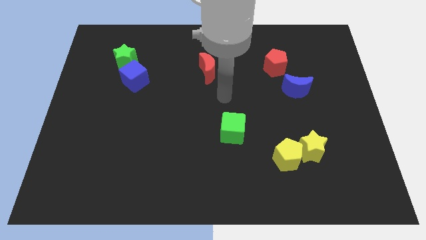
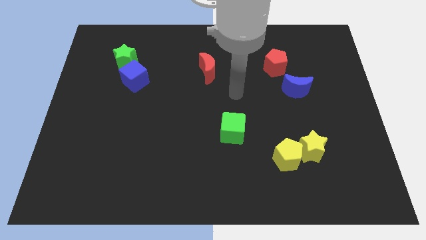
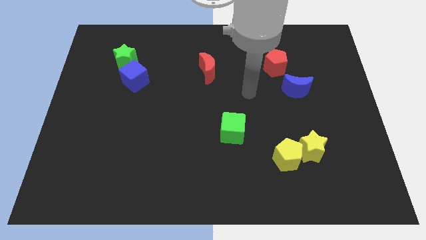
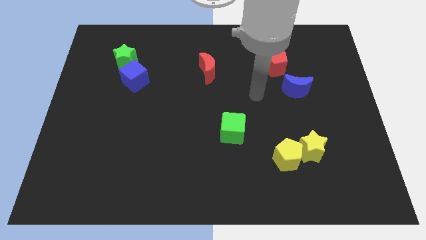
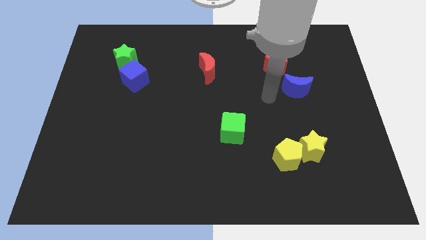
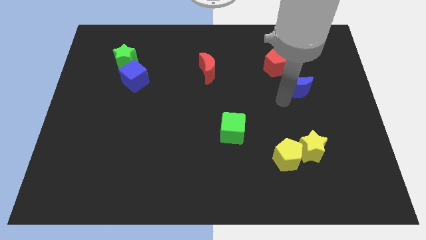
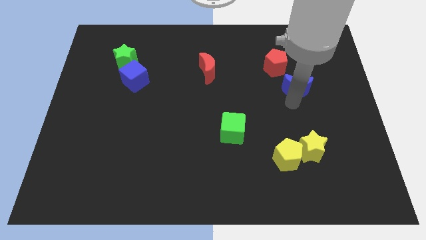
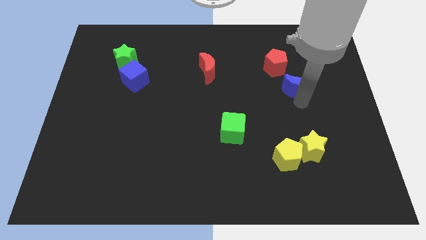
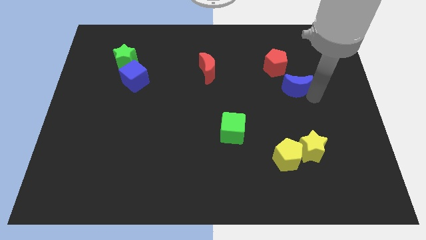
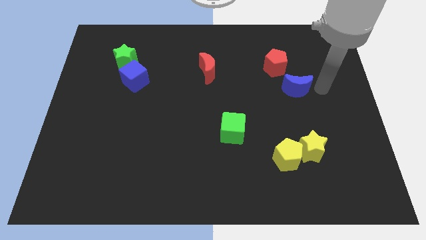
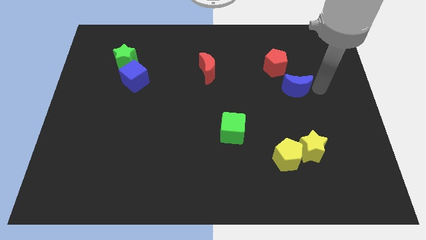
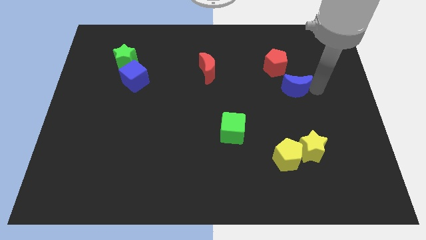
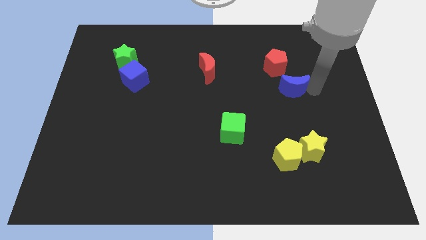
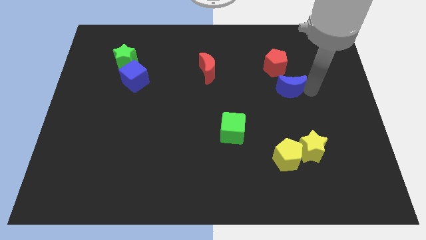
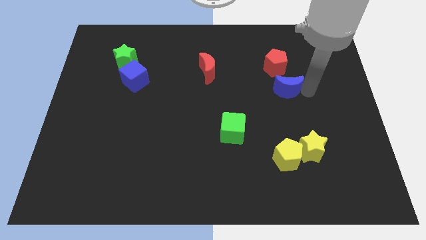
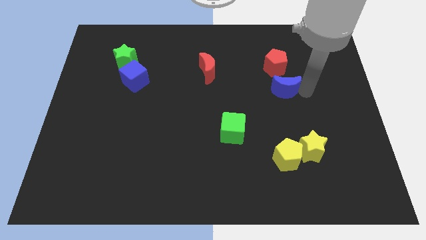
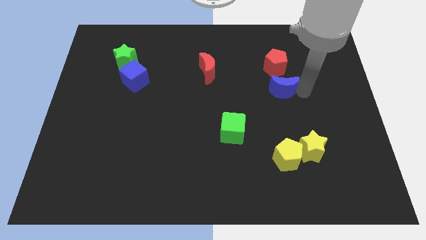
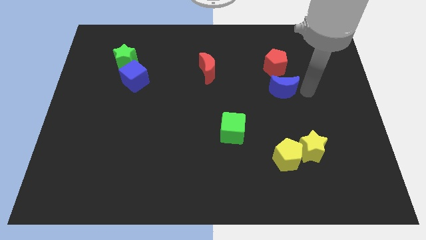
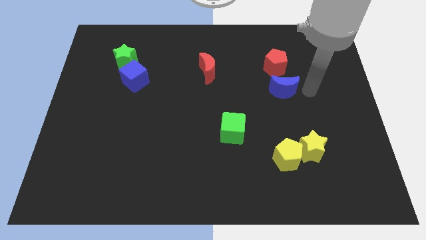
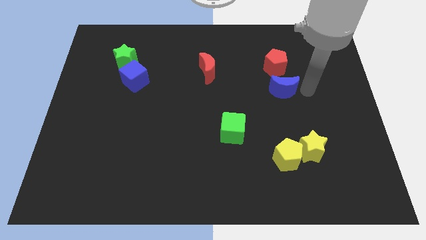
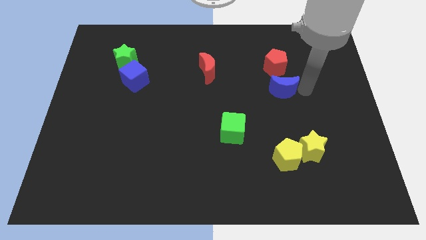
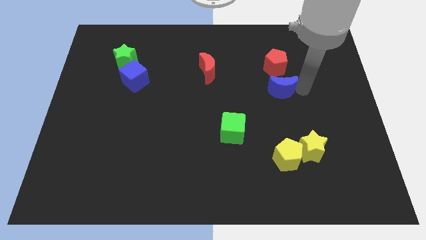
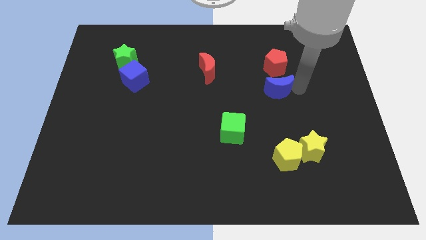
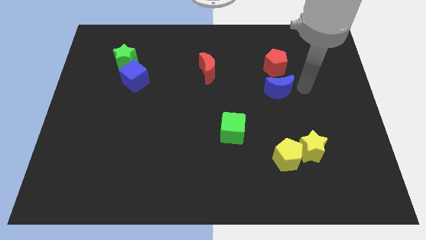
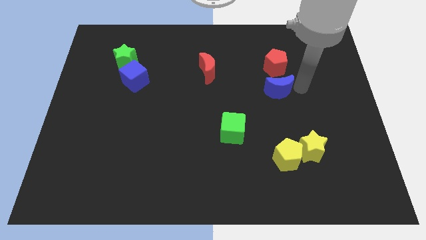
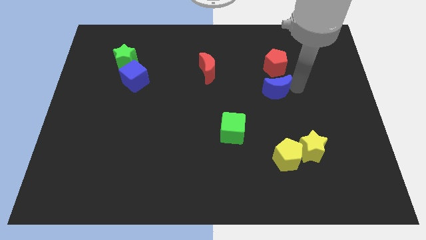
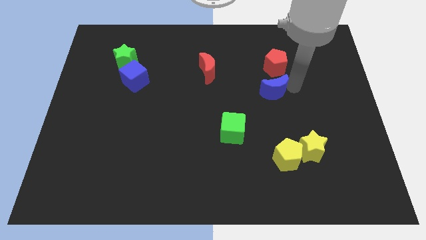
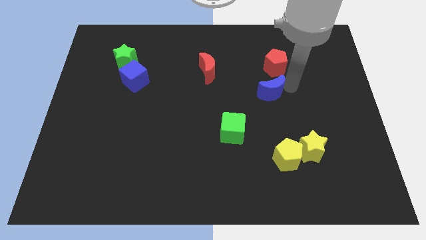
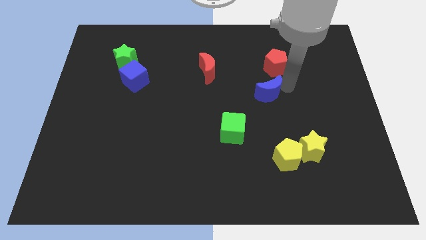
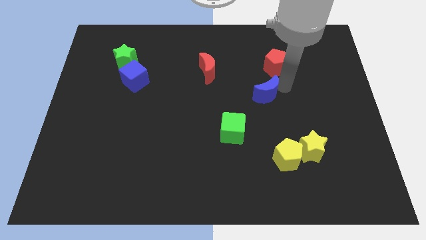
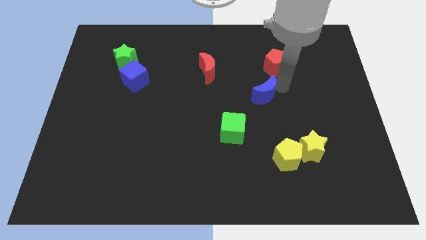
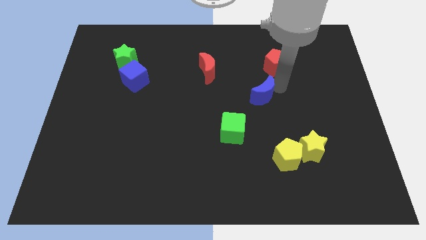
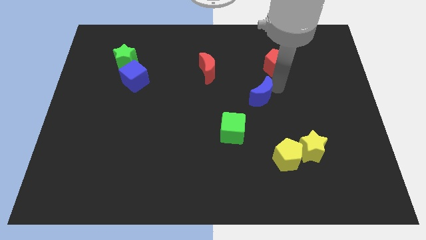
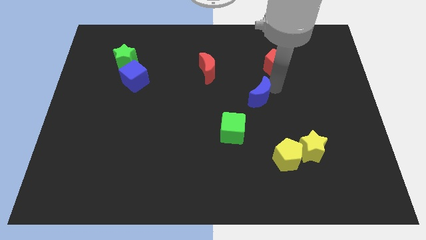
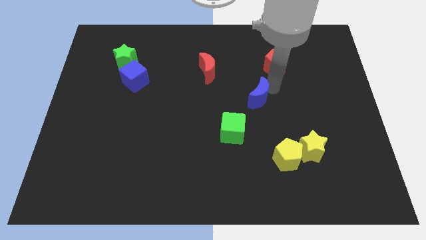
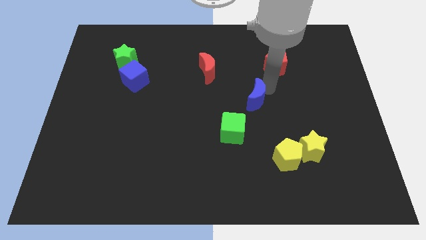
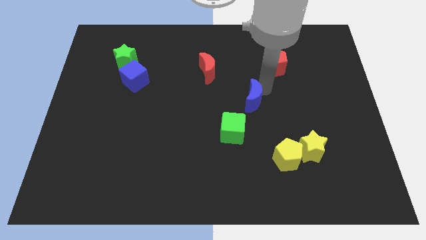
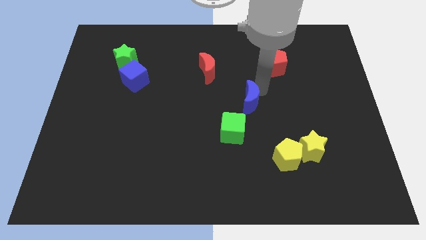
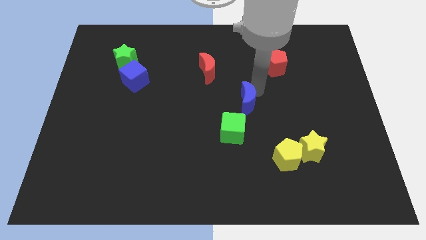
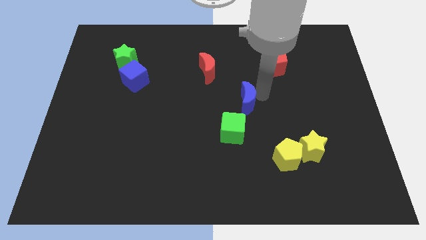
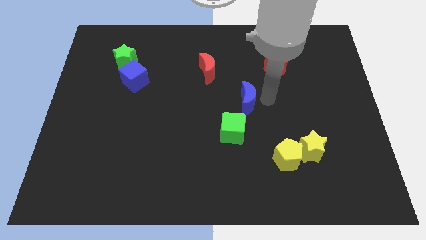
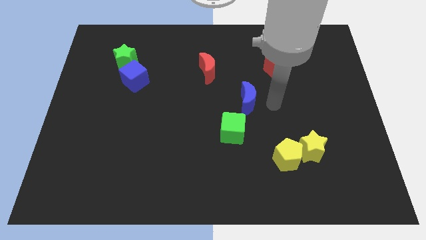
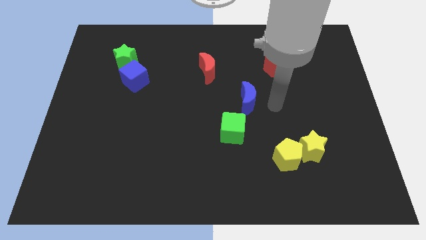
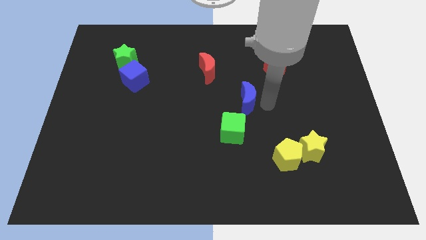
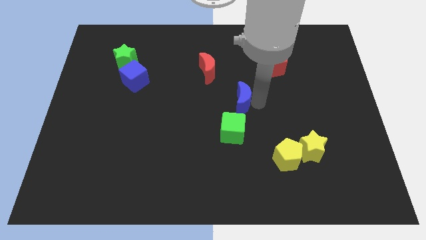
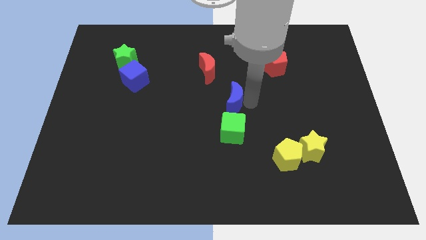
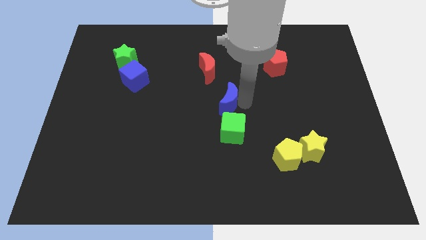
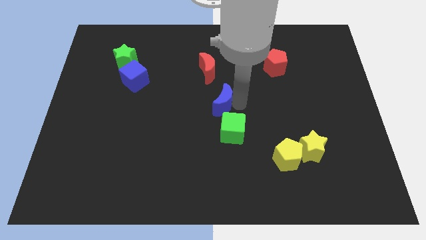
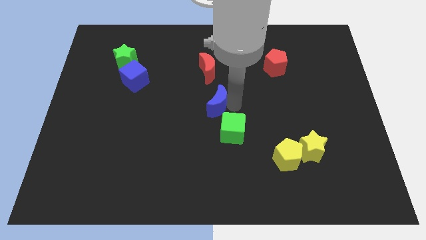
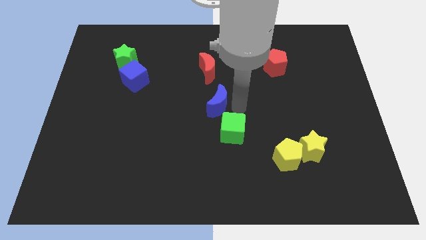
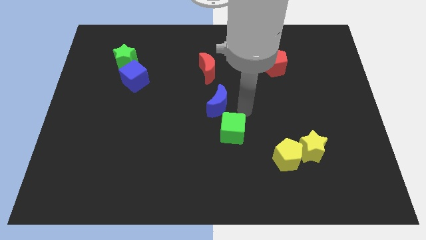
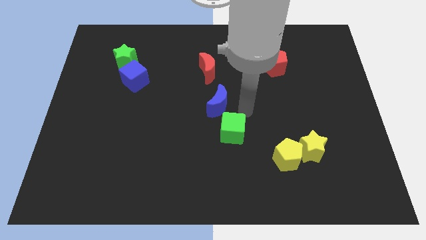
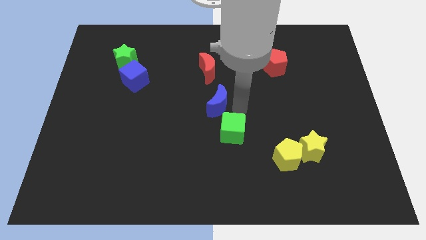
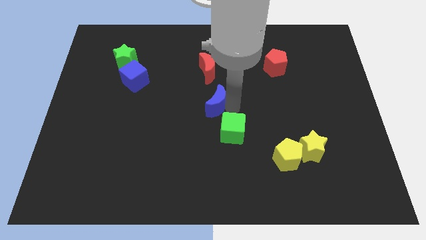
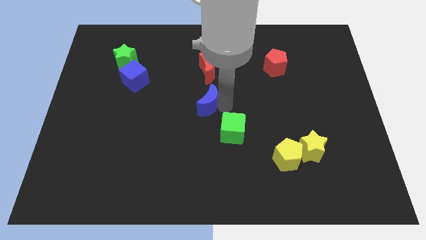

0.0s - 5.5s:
slide the blue moon left

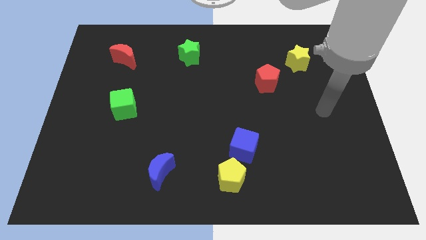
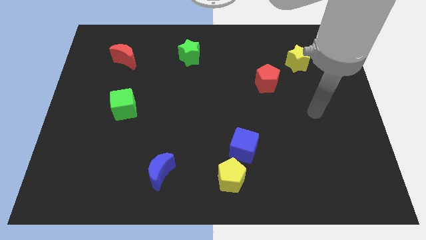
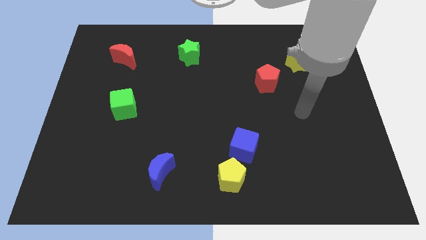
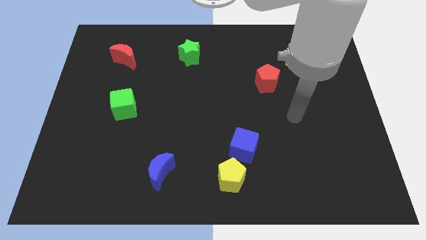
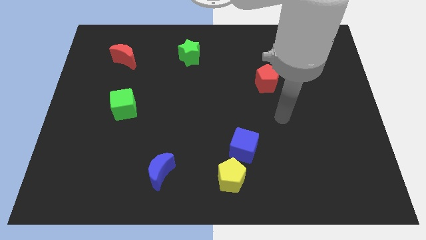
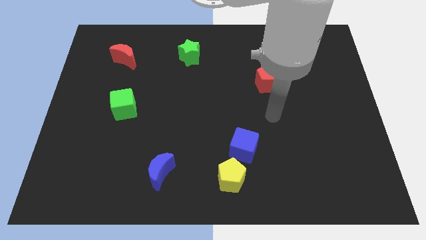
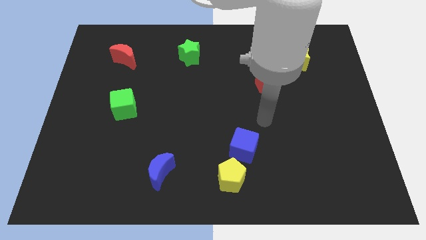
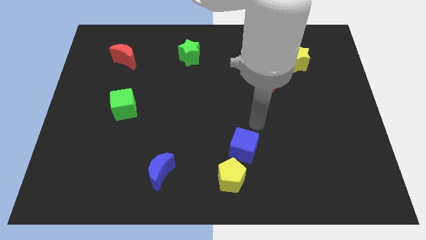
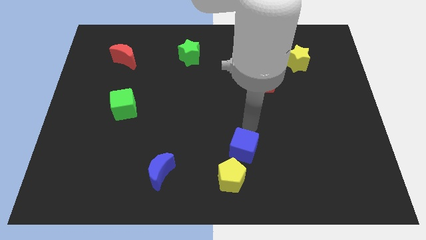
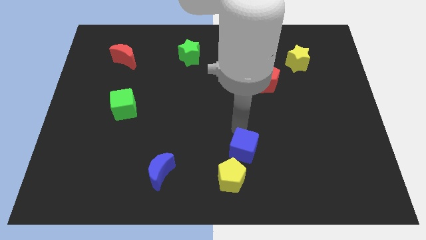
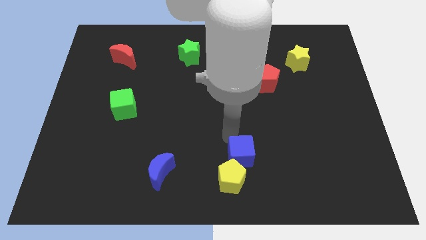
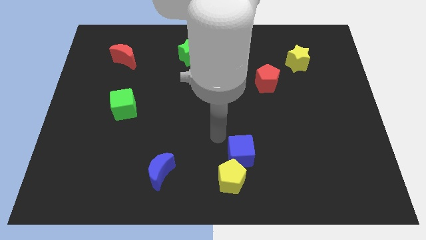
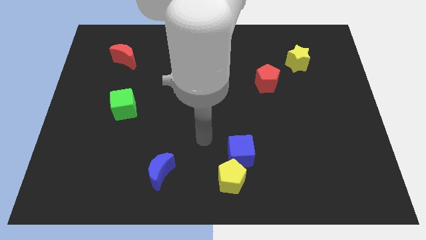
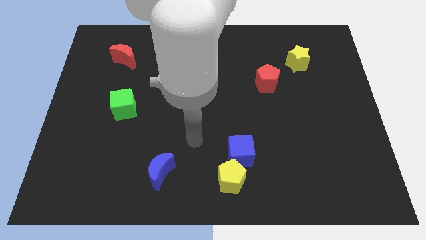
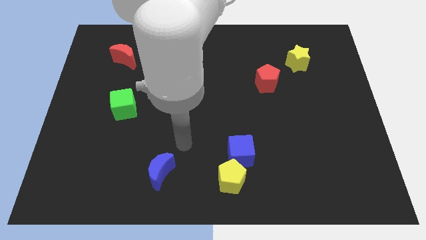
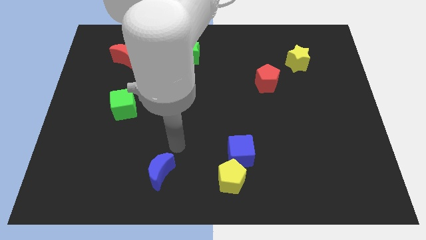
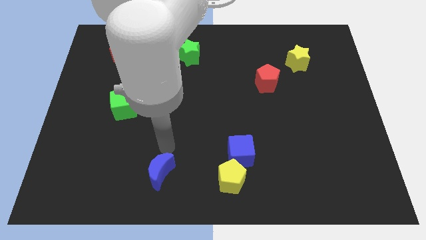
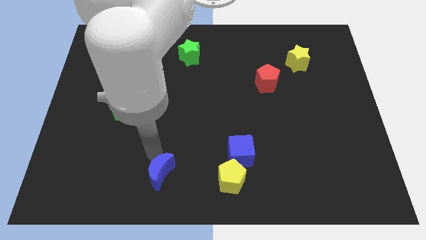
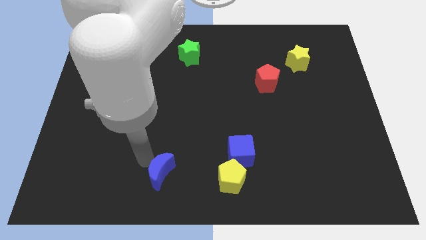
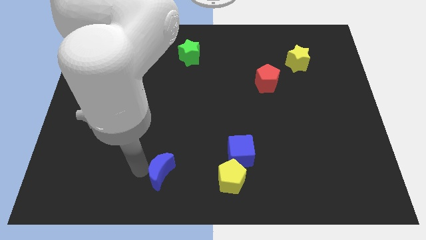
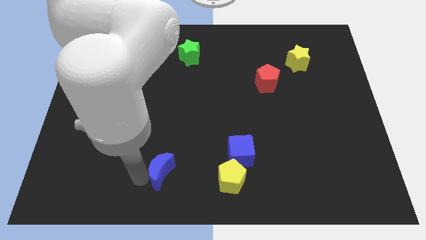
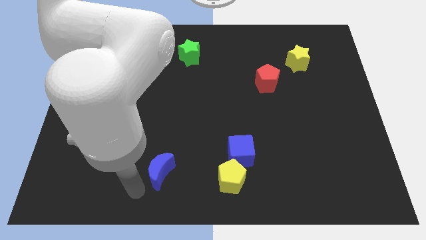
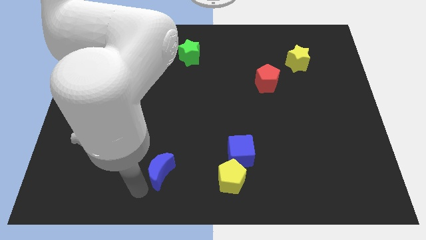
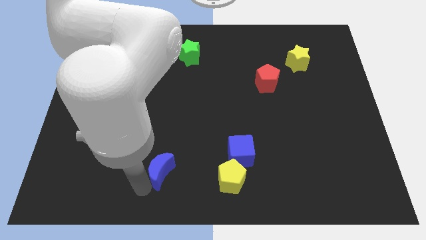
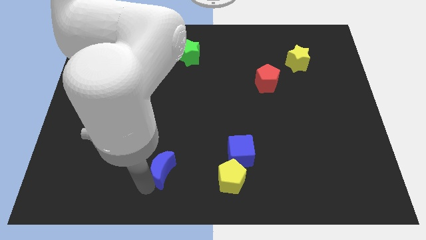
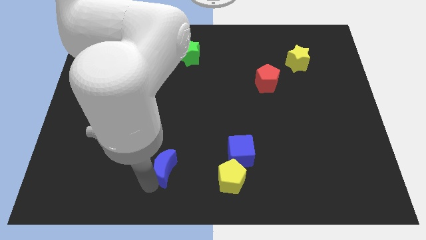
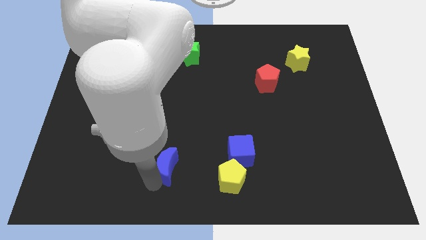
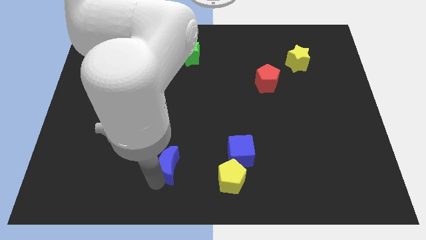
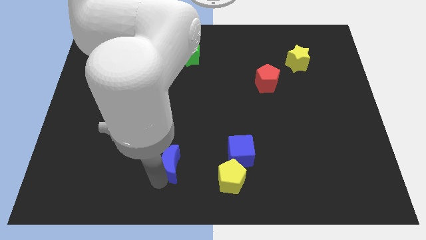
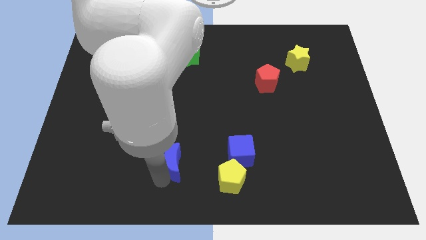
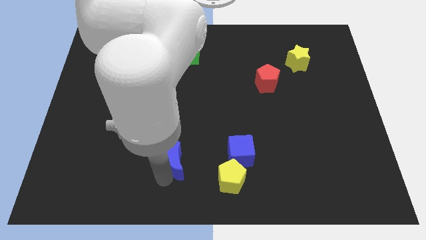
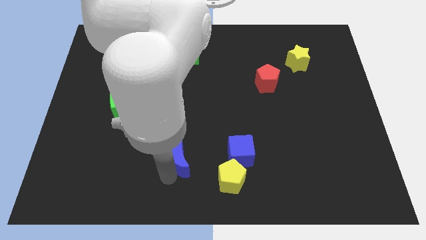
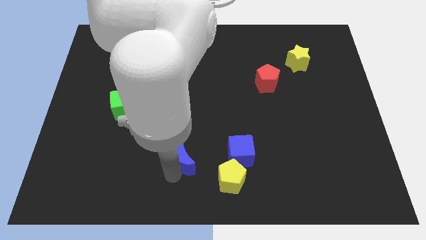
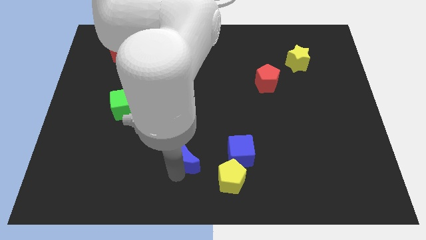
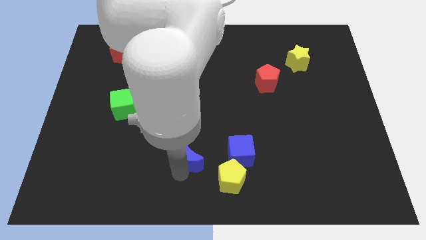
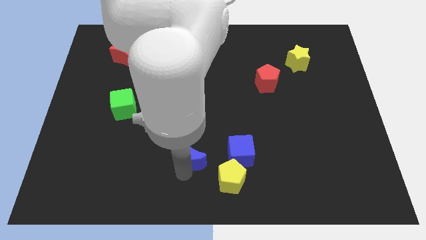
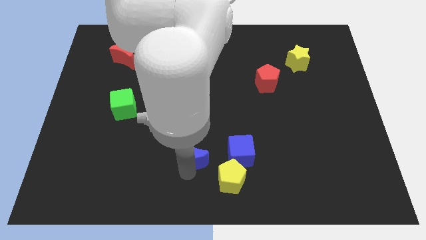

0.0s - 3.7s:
slide the blue moon up and then right somewhat
